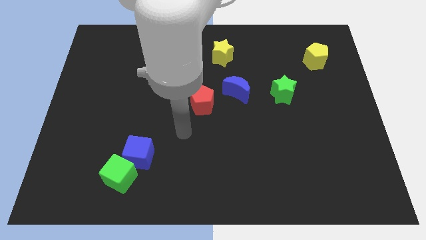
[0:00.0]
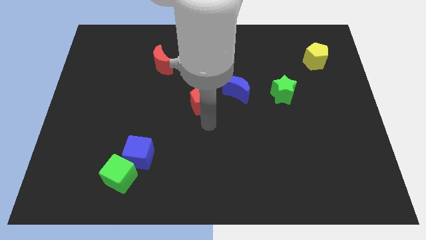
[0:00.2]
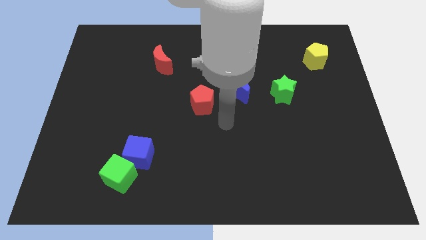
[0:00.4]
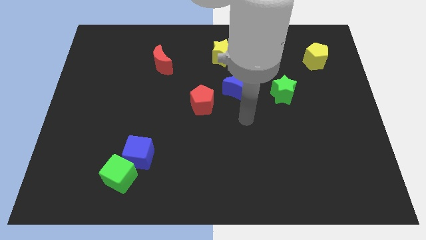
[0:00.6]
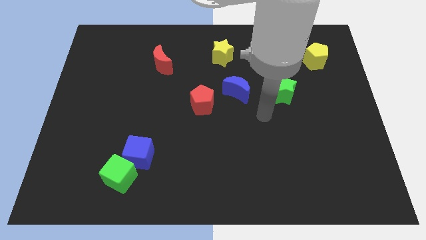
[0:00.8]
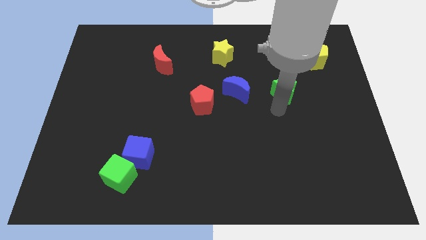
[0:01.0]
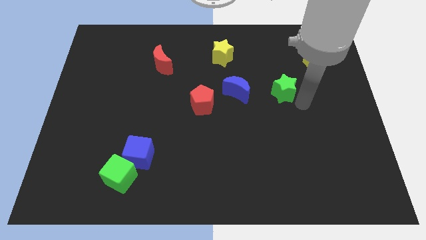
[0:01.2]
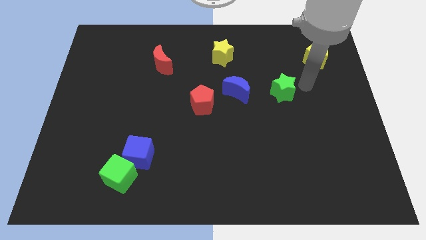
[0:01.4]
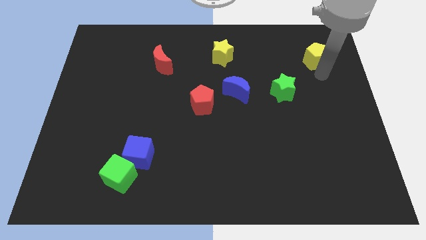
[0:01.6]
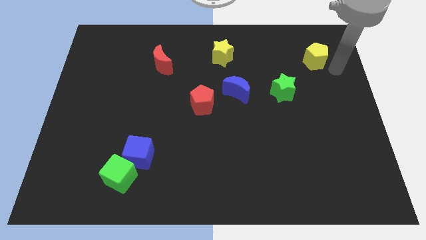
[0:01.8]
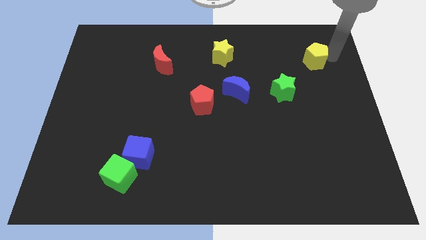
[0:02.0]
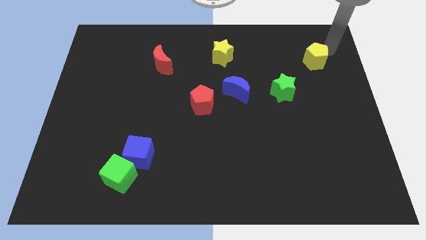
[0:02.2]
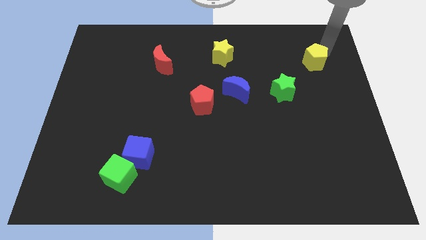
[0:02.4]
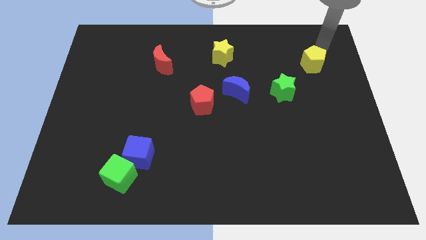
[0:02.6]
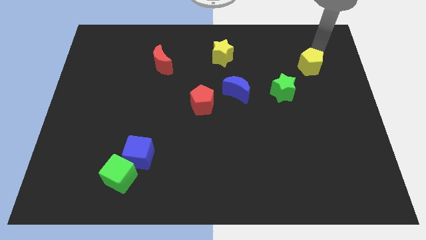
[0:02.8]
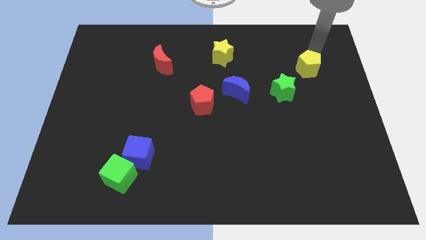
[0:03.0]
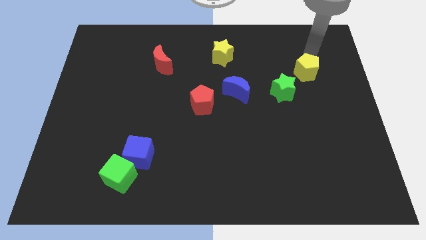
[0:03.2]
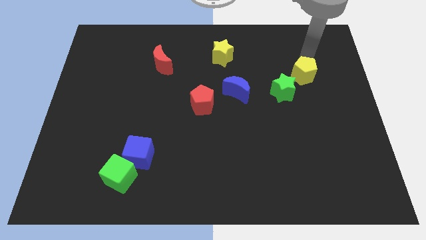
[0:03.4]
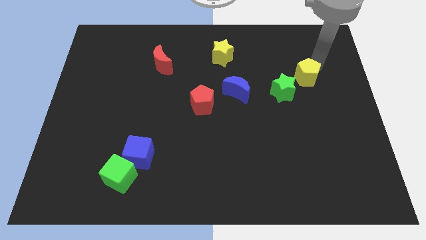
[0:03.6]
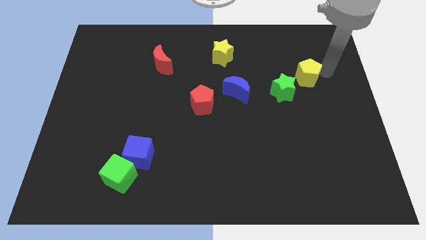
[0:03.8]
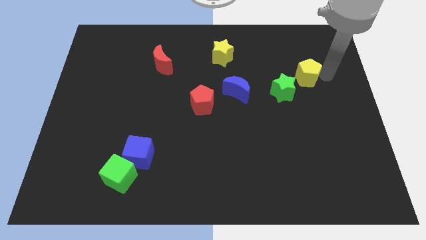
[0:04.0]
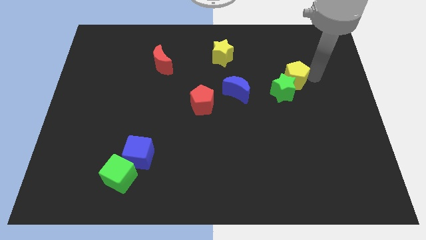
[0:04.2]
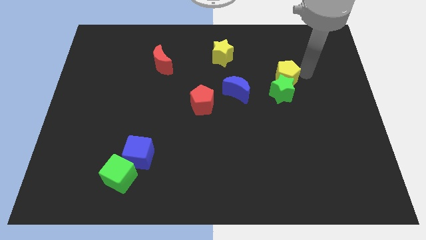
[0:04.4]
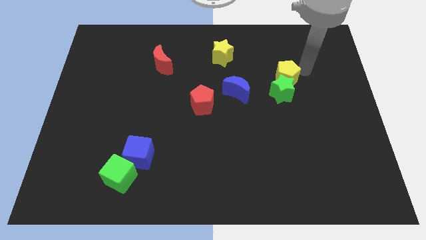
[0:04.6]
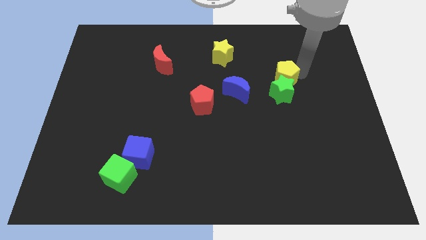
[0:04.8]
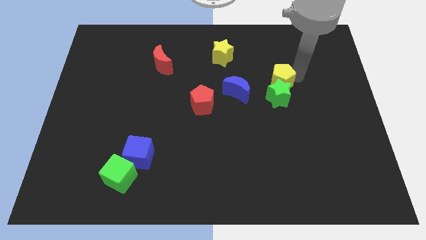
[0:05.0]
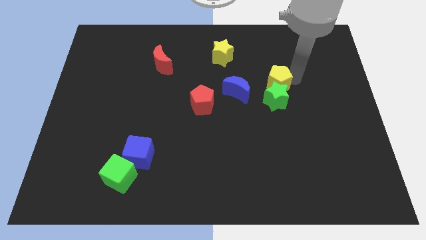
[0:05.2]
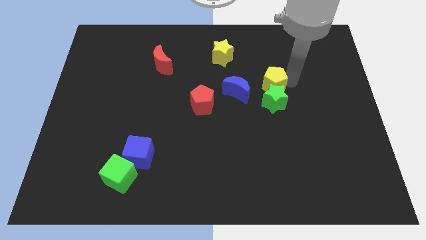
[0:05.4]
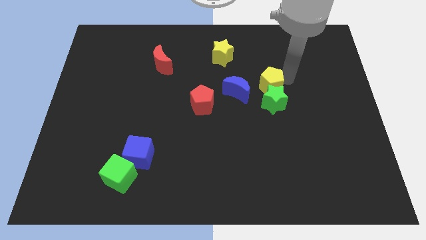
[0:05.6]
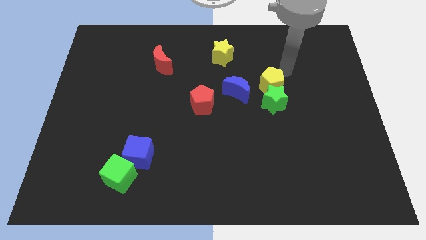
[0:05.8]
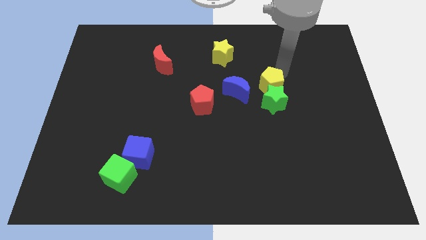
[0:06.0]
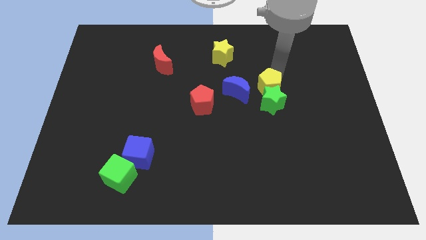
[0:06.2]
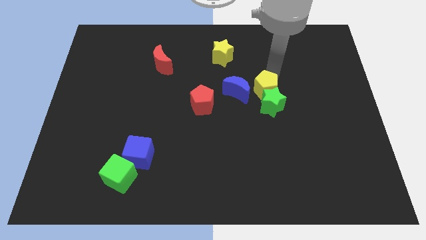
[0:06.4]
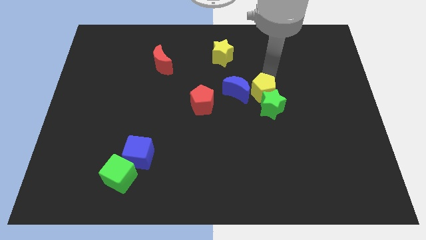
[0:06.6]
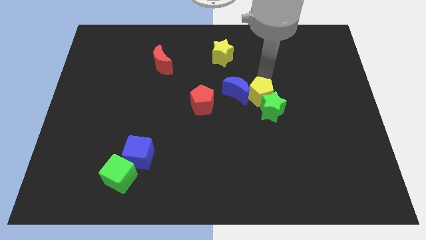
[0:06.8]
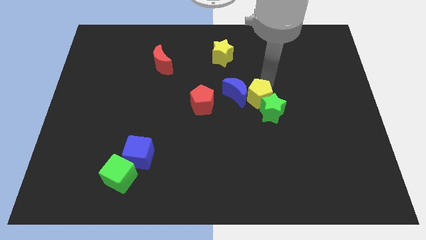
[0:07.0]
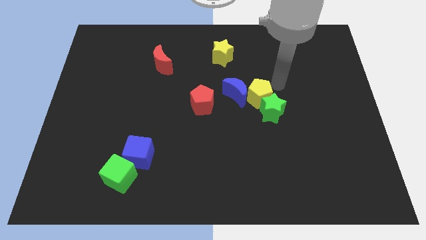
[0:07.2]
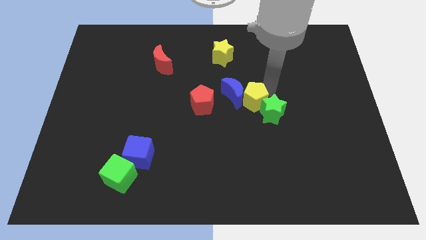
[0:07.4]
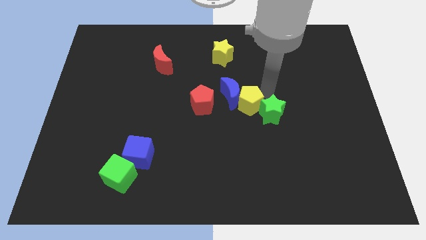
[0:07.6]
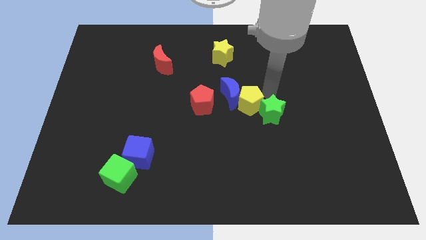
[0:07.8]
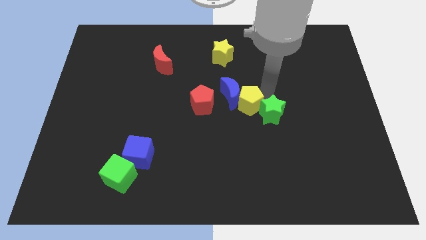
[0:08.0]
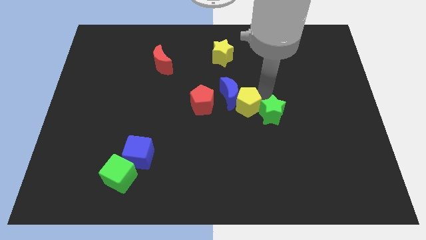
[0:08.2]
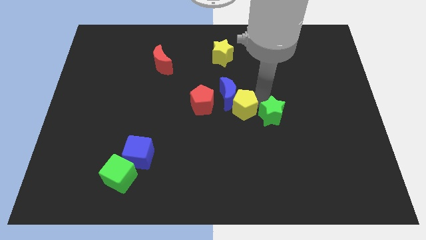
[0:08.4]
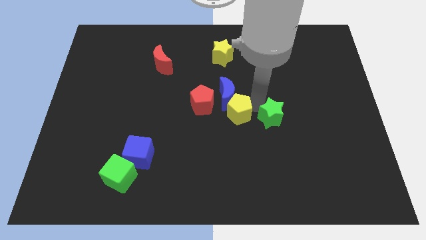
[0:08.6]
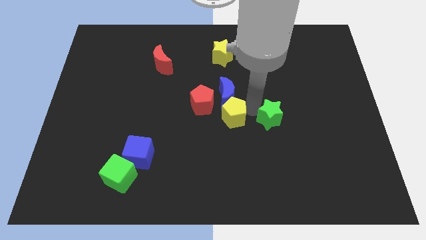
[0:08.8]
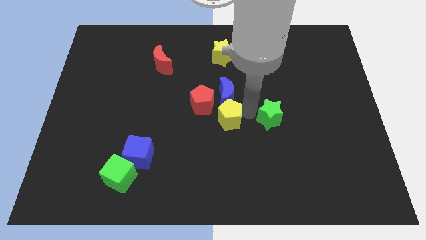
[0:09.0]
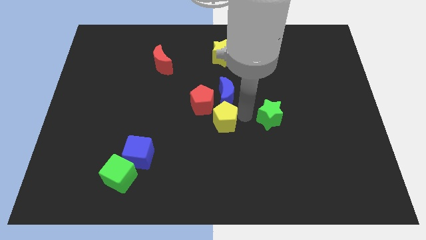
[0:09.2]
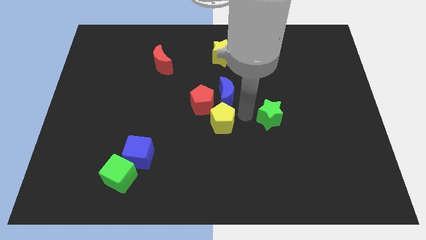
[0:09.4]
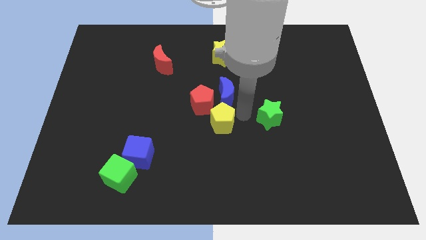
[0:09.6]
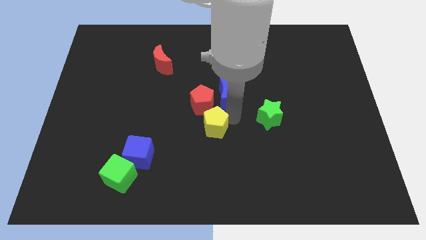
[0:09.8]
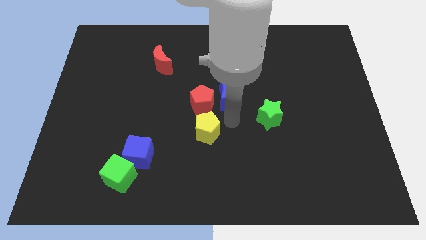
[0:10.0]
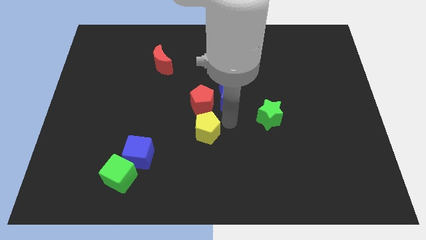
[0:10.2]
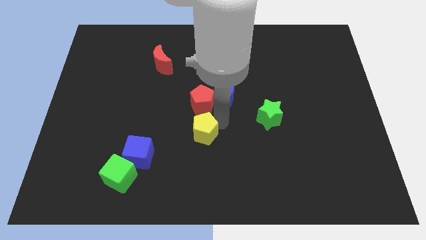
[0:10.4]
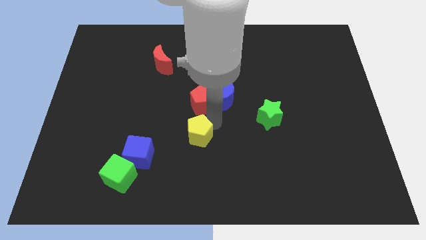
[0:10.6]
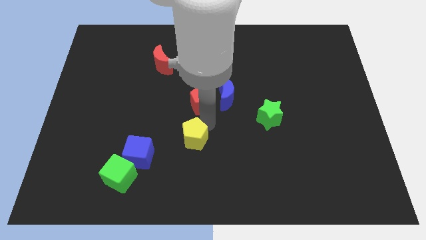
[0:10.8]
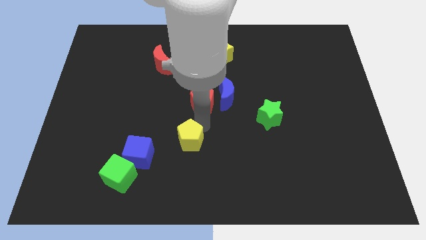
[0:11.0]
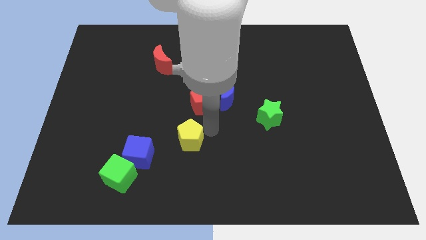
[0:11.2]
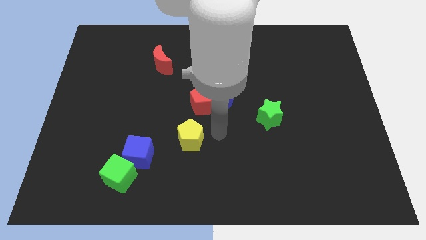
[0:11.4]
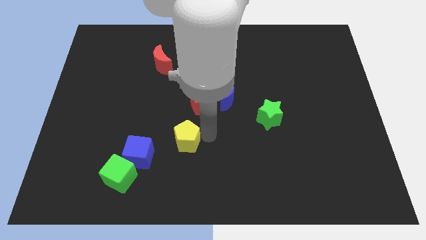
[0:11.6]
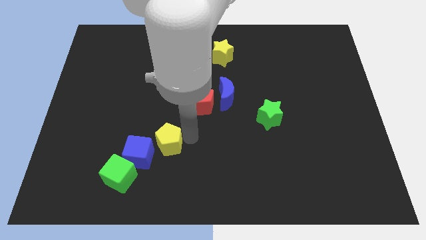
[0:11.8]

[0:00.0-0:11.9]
put the yellow pentagon to the top right of the green cube

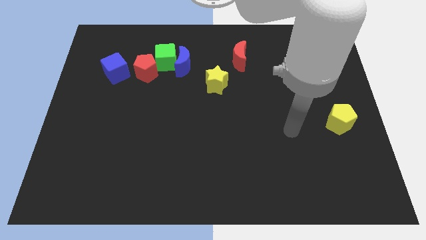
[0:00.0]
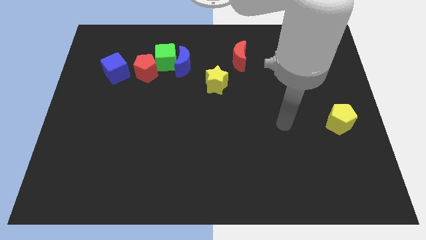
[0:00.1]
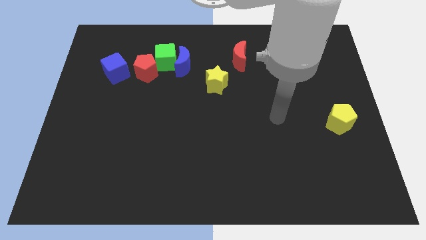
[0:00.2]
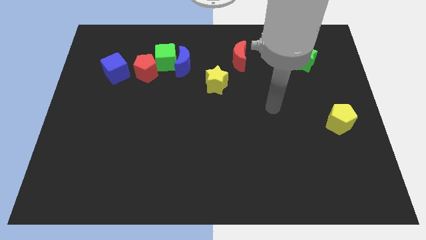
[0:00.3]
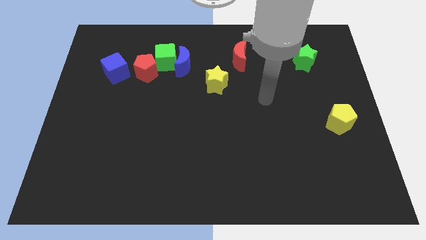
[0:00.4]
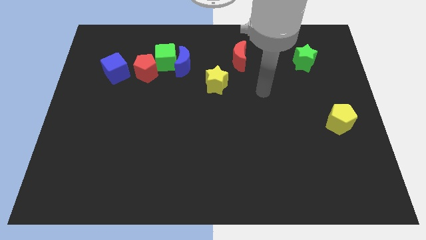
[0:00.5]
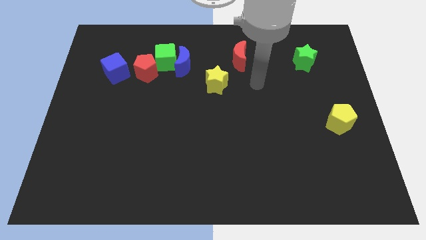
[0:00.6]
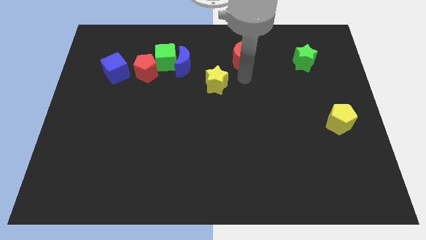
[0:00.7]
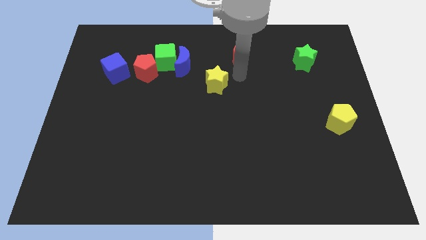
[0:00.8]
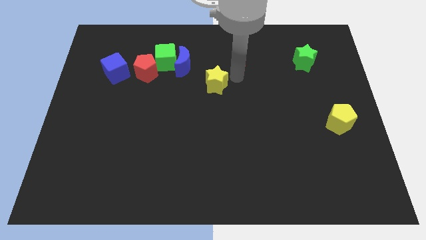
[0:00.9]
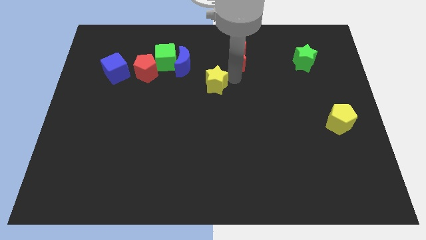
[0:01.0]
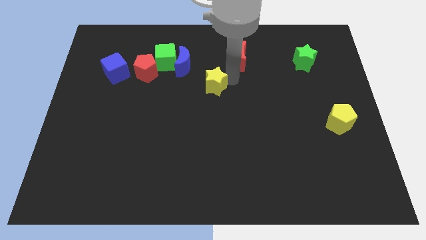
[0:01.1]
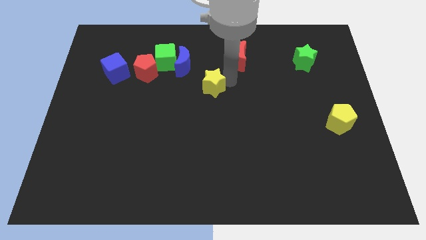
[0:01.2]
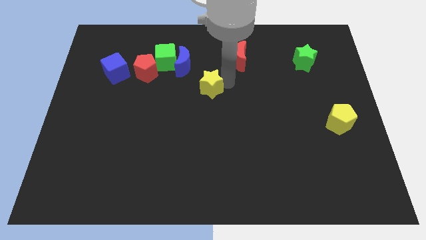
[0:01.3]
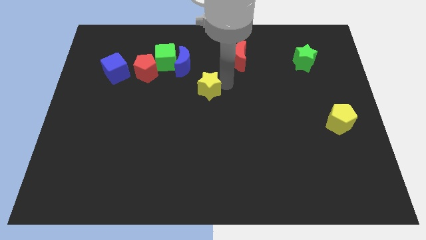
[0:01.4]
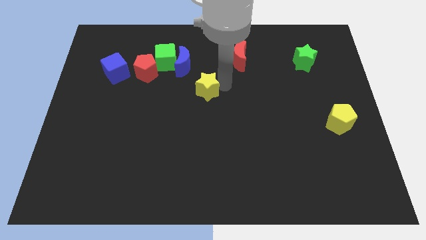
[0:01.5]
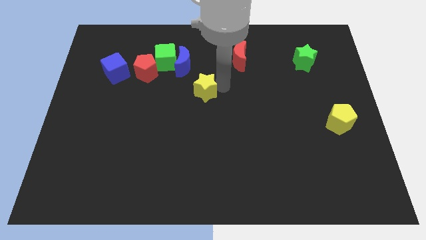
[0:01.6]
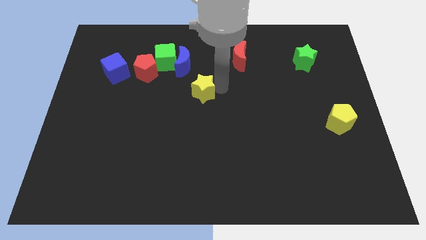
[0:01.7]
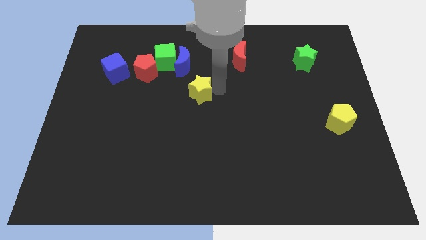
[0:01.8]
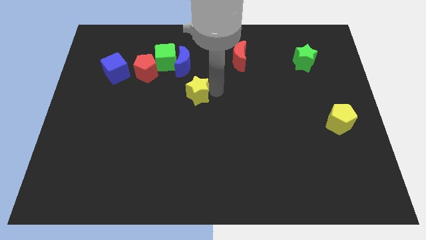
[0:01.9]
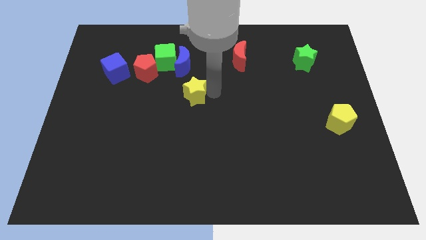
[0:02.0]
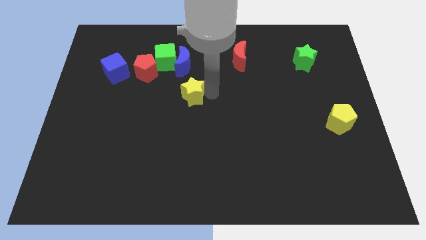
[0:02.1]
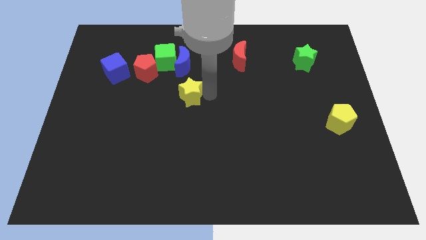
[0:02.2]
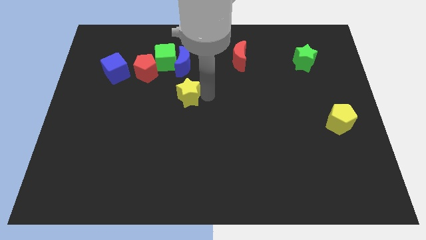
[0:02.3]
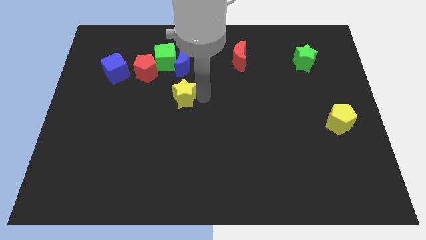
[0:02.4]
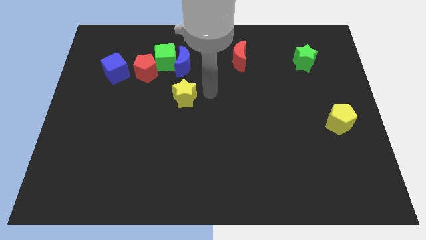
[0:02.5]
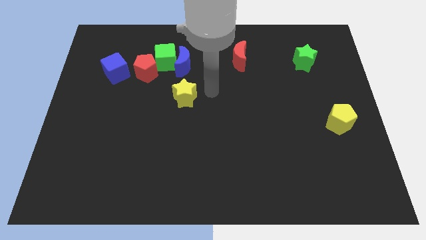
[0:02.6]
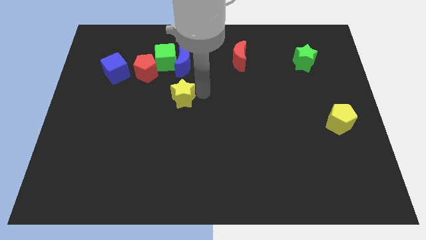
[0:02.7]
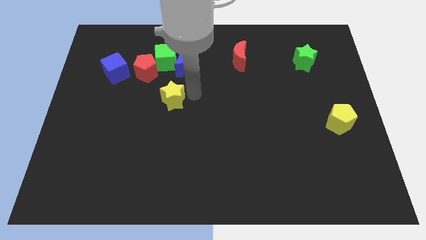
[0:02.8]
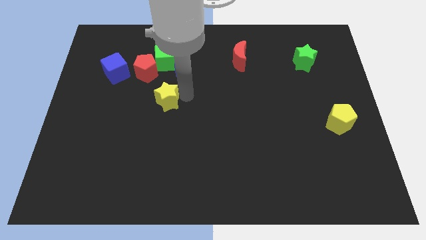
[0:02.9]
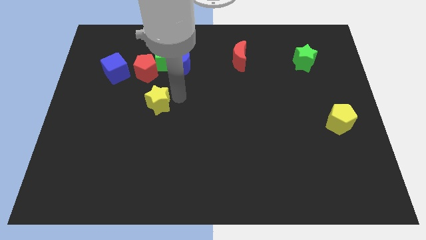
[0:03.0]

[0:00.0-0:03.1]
move the yellow star to the bottom of the red pentagon
